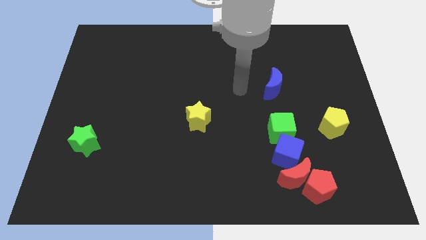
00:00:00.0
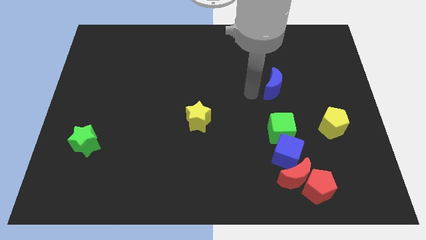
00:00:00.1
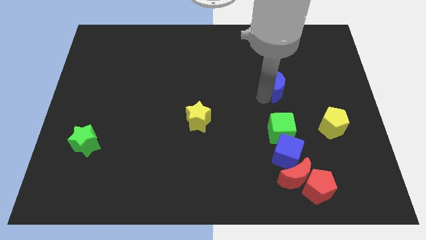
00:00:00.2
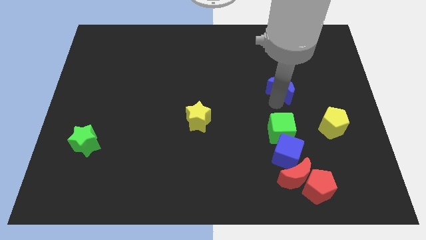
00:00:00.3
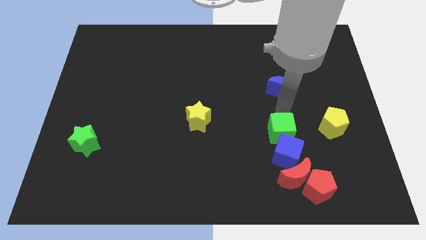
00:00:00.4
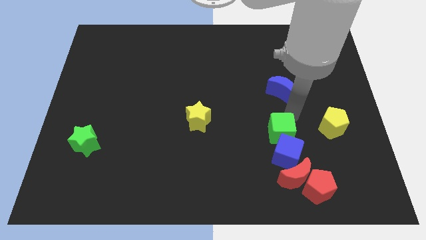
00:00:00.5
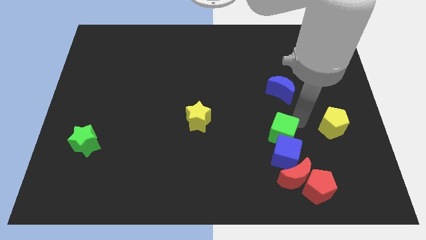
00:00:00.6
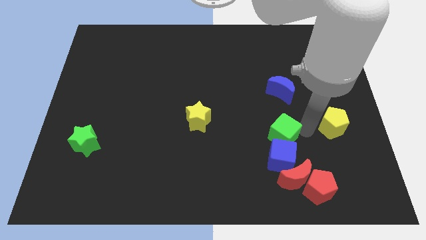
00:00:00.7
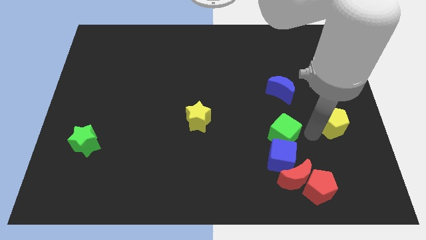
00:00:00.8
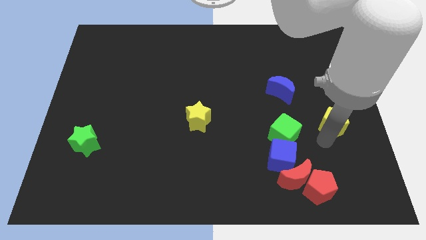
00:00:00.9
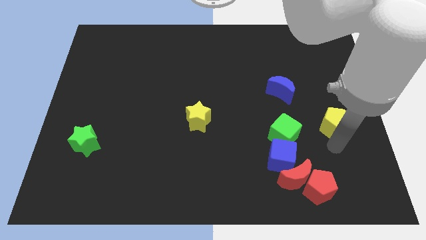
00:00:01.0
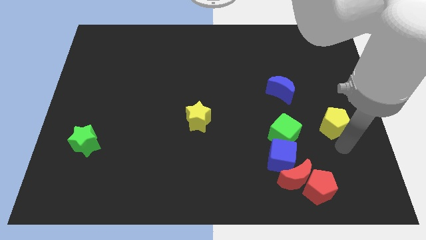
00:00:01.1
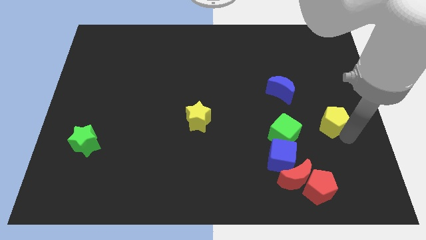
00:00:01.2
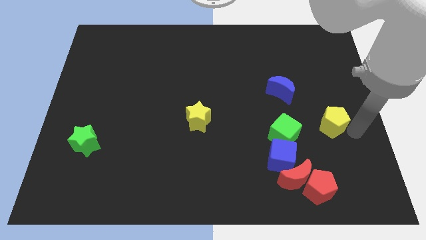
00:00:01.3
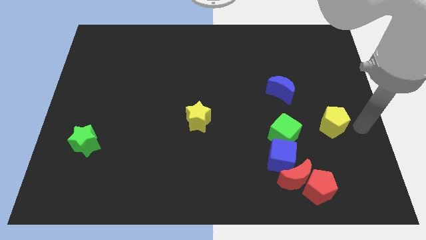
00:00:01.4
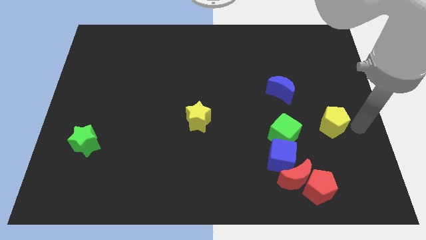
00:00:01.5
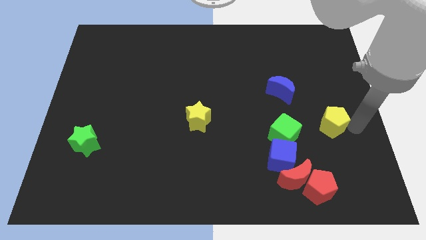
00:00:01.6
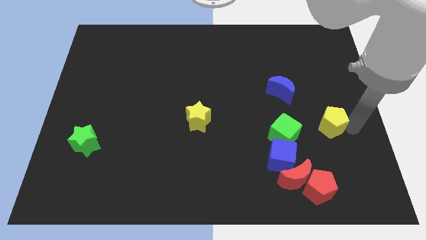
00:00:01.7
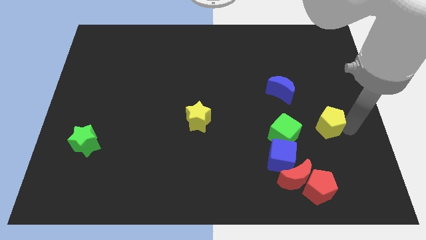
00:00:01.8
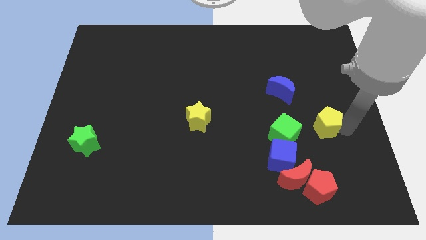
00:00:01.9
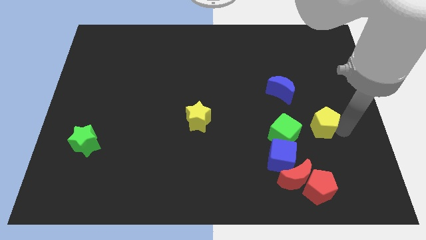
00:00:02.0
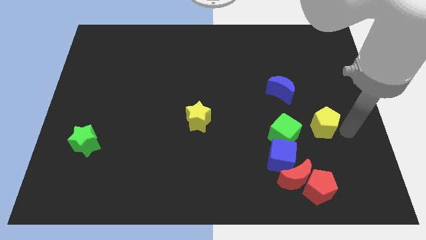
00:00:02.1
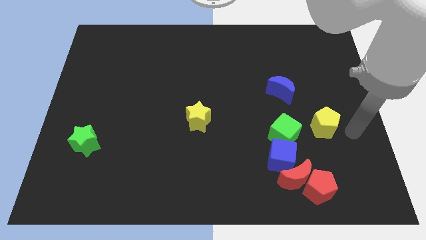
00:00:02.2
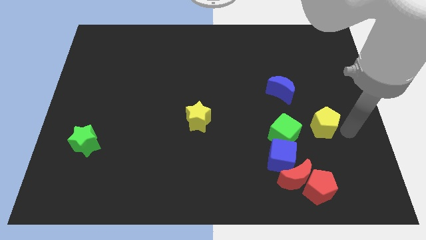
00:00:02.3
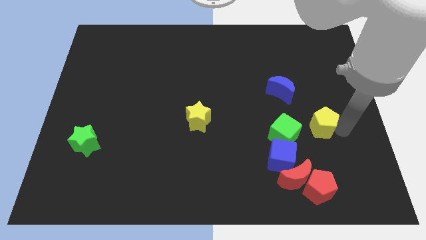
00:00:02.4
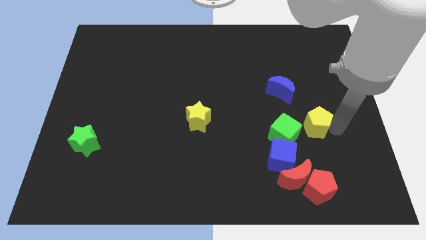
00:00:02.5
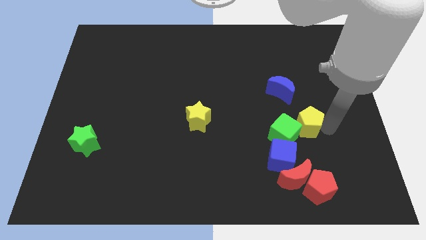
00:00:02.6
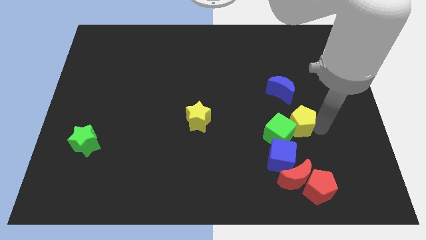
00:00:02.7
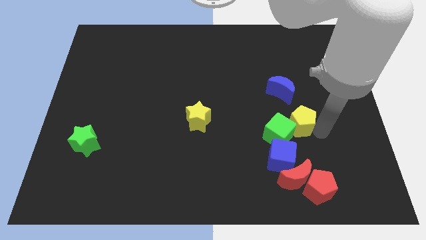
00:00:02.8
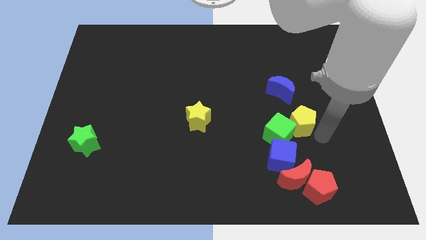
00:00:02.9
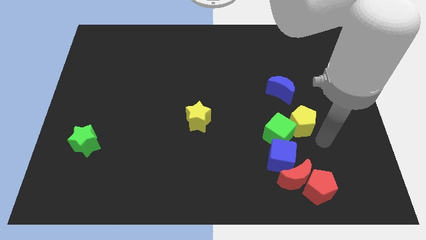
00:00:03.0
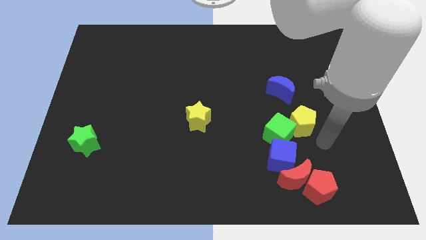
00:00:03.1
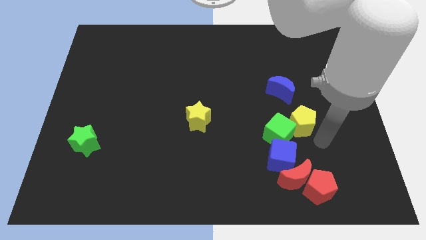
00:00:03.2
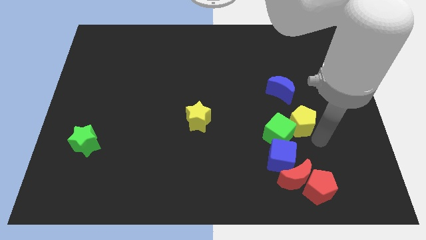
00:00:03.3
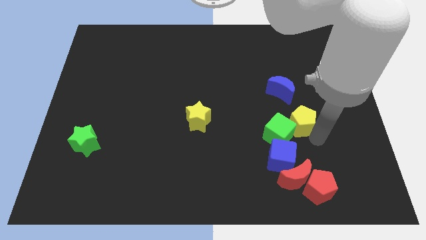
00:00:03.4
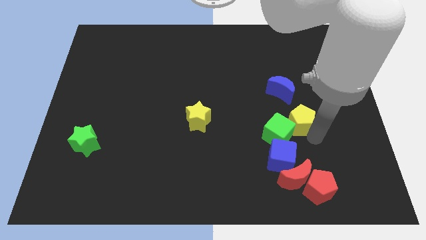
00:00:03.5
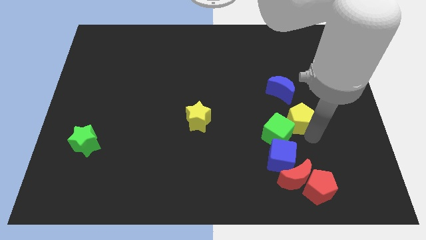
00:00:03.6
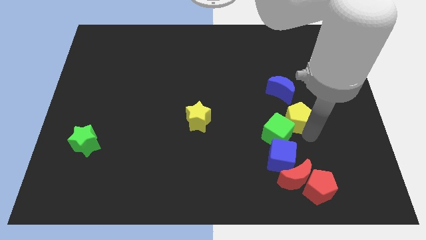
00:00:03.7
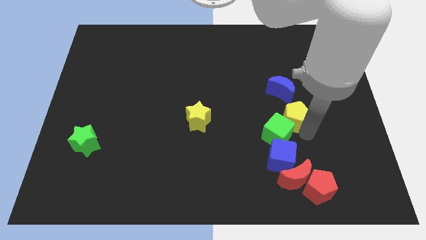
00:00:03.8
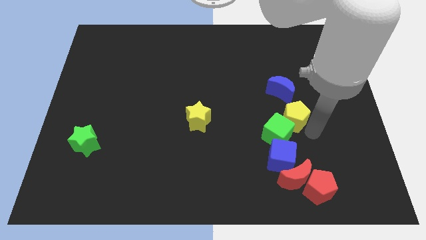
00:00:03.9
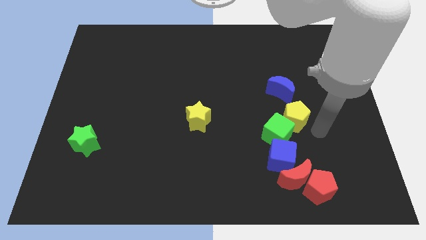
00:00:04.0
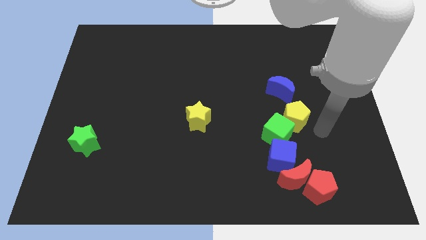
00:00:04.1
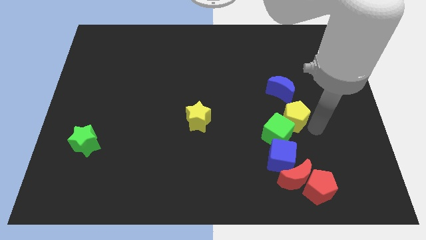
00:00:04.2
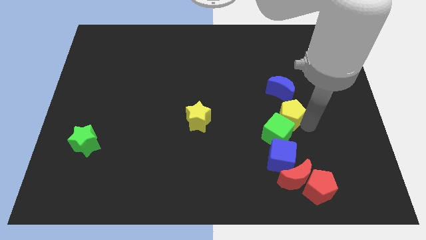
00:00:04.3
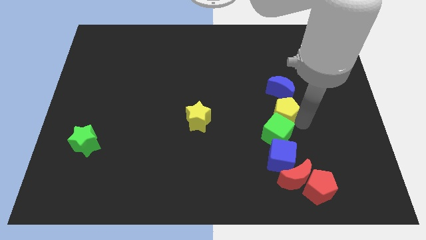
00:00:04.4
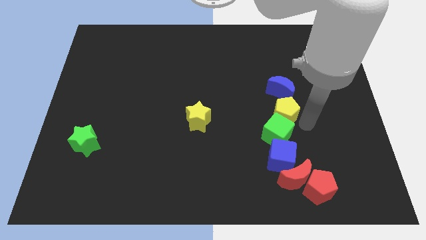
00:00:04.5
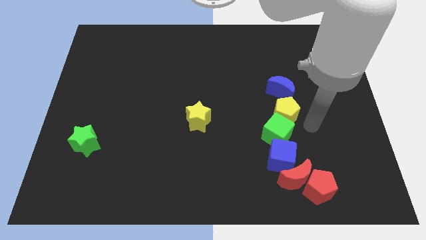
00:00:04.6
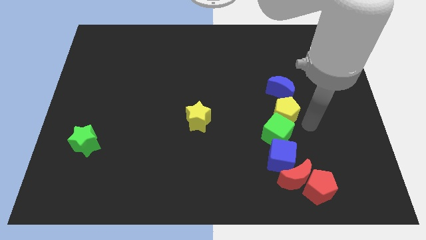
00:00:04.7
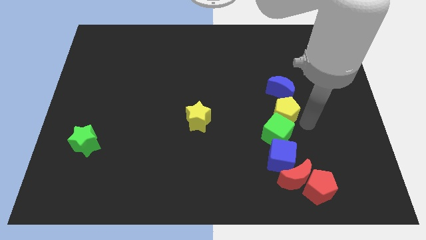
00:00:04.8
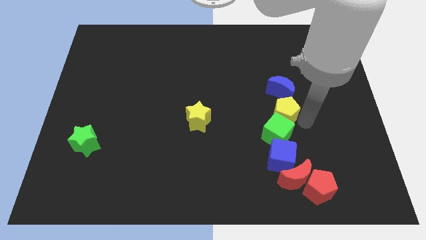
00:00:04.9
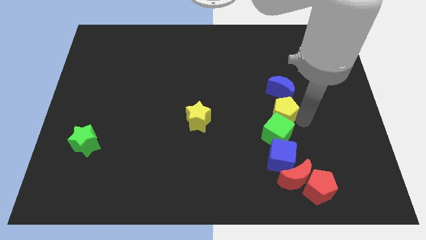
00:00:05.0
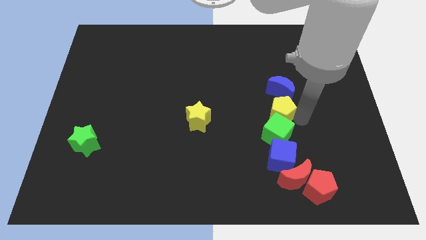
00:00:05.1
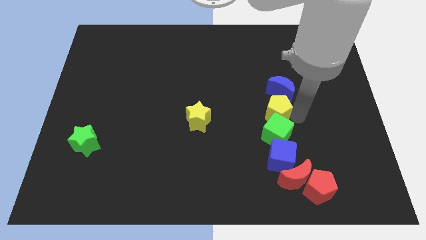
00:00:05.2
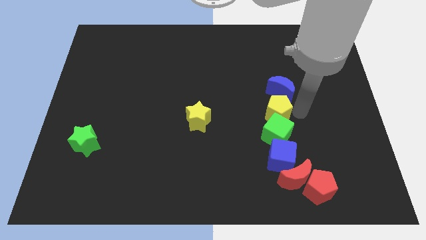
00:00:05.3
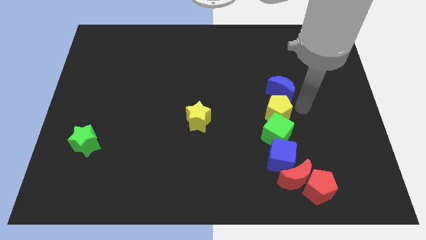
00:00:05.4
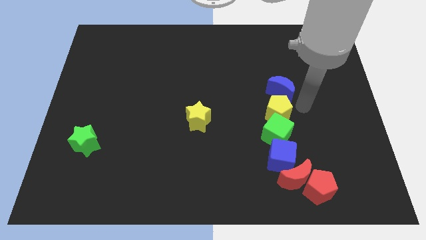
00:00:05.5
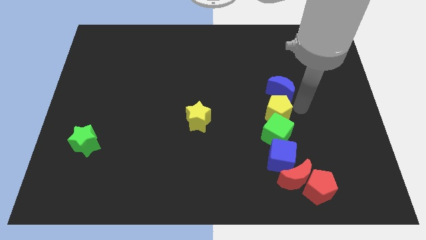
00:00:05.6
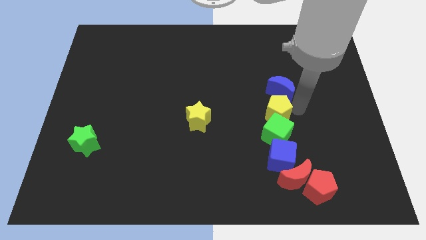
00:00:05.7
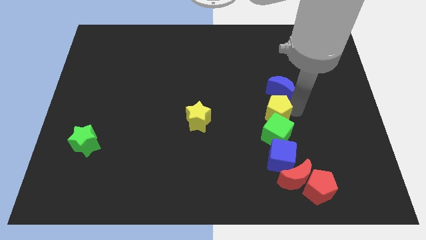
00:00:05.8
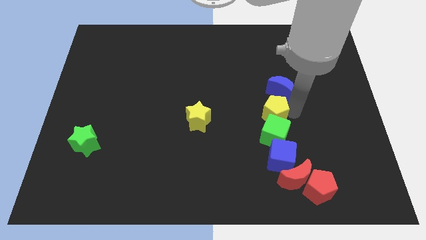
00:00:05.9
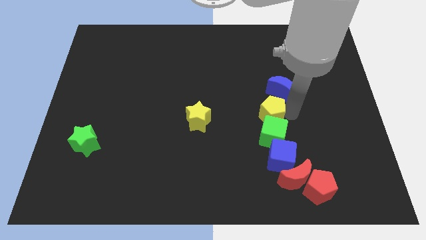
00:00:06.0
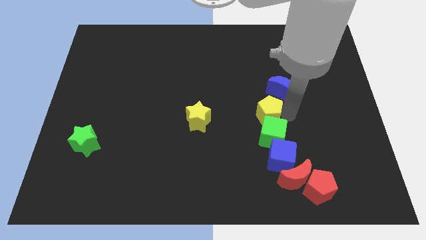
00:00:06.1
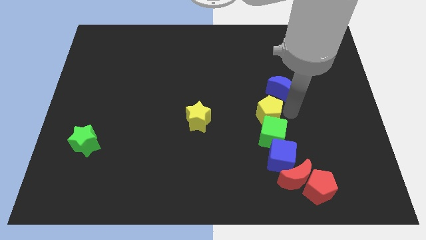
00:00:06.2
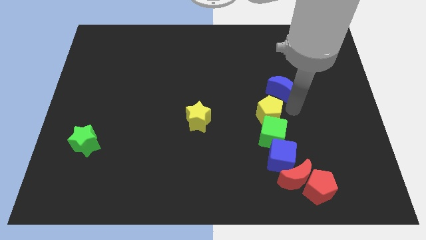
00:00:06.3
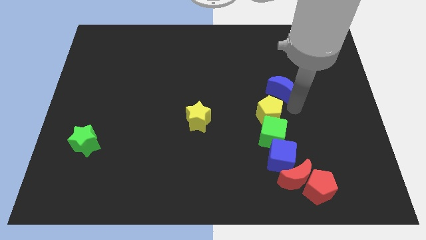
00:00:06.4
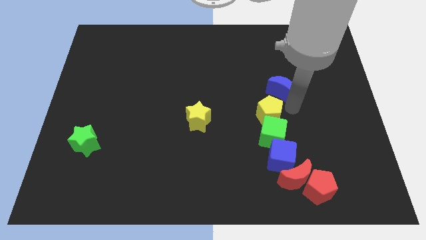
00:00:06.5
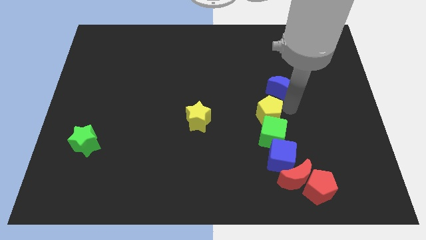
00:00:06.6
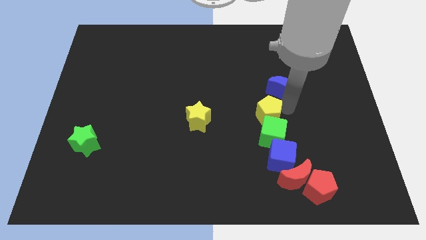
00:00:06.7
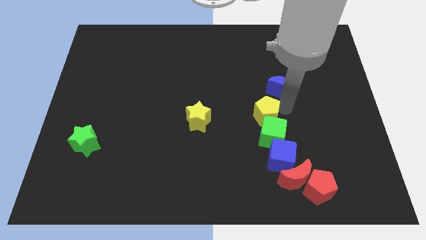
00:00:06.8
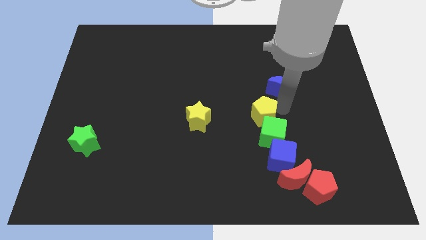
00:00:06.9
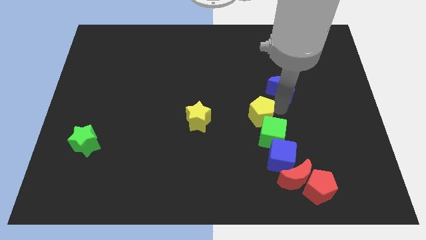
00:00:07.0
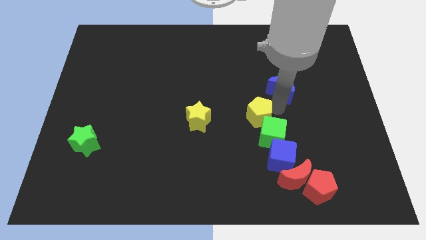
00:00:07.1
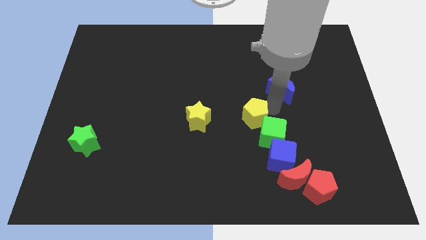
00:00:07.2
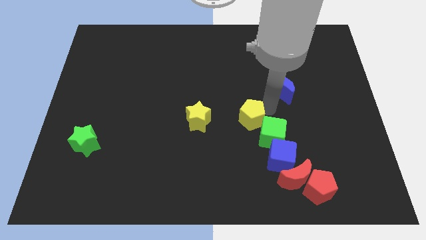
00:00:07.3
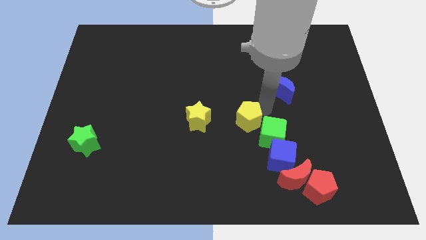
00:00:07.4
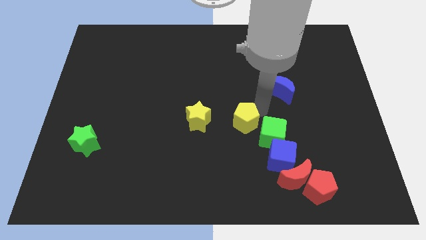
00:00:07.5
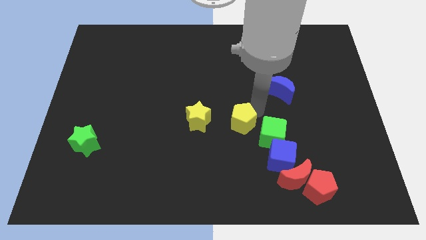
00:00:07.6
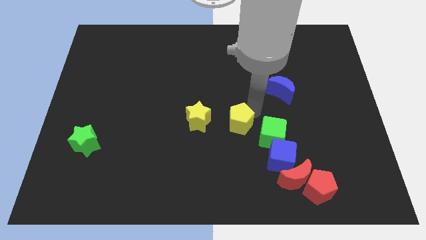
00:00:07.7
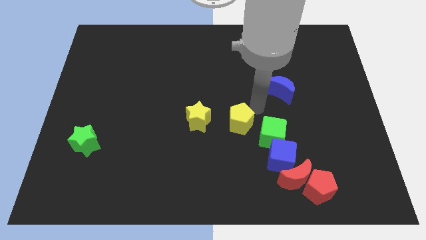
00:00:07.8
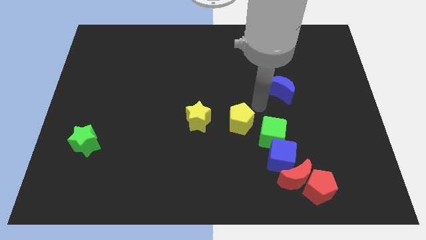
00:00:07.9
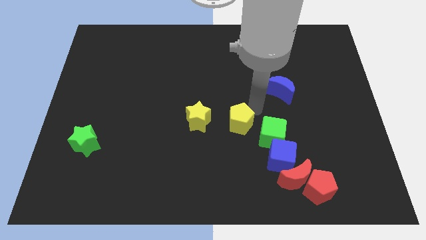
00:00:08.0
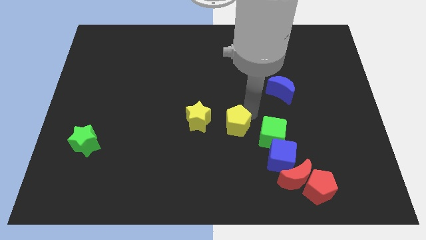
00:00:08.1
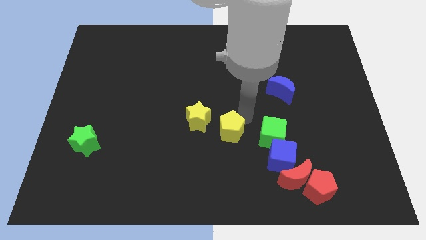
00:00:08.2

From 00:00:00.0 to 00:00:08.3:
slide the yellow pentagon diagonally down and to the right of the yellow star

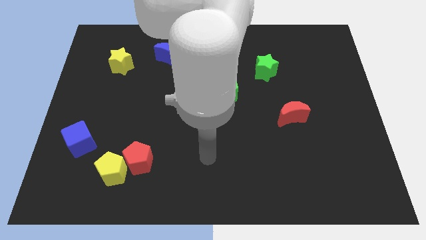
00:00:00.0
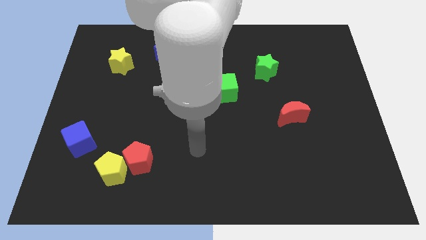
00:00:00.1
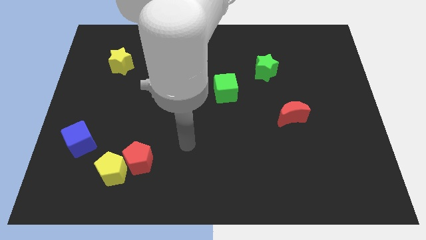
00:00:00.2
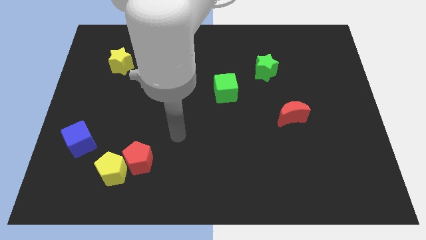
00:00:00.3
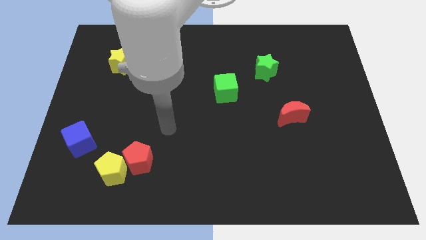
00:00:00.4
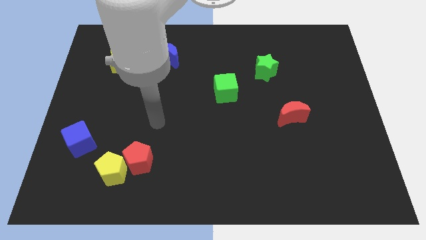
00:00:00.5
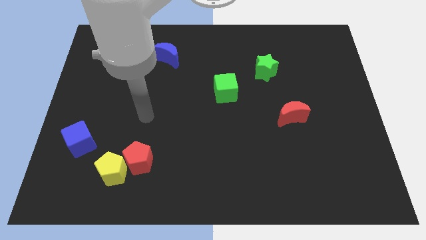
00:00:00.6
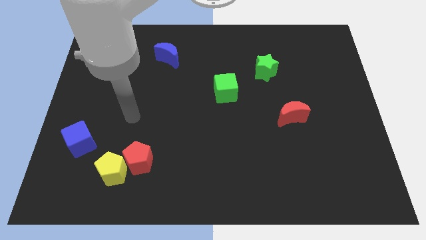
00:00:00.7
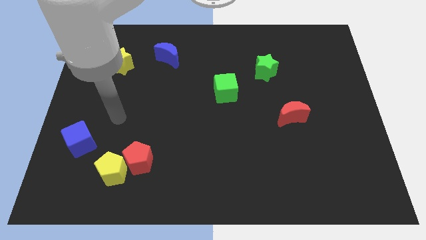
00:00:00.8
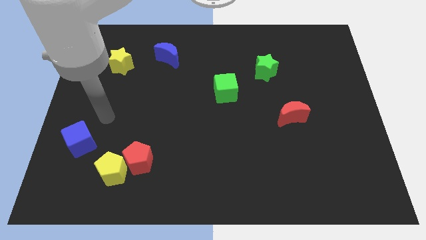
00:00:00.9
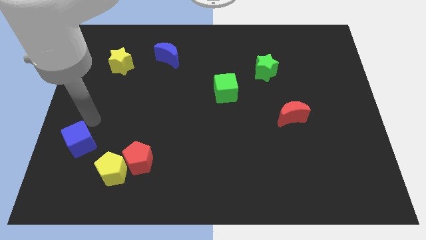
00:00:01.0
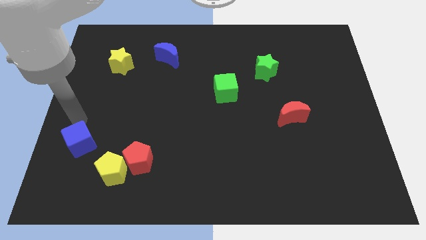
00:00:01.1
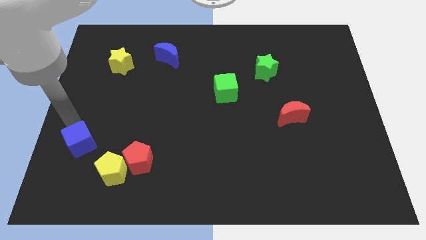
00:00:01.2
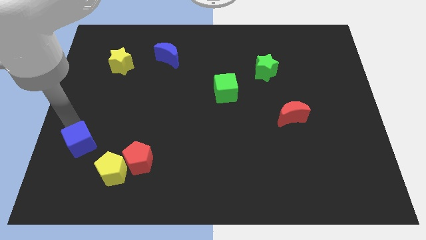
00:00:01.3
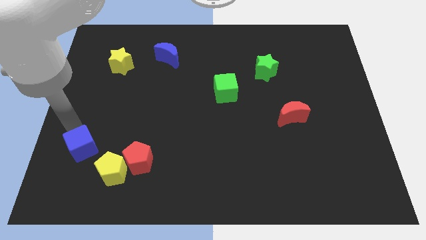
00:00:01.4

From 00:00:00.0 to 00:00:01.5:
put the blue cube to the left side of the red pentagon
